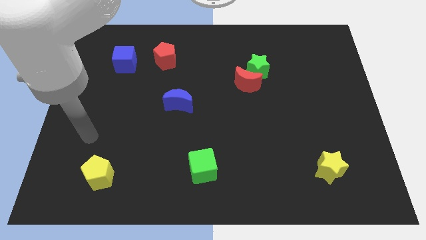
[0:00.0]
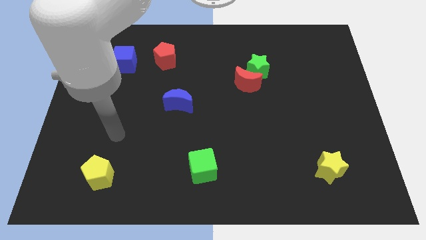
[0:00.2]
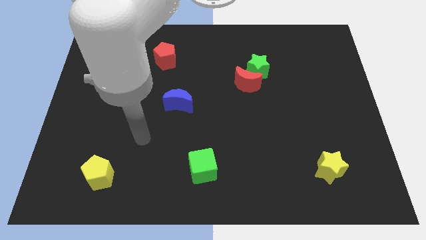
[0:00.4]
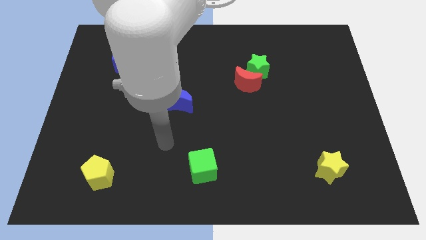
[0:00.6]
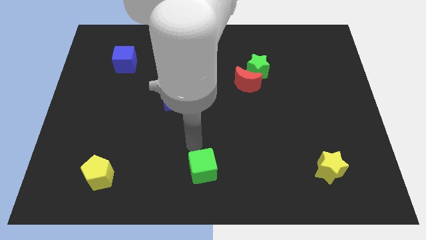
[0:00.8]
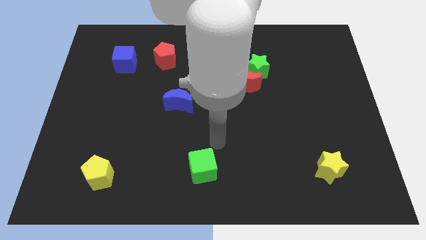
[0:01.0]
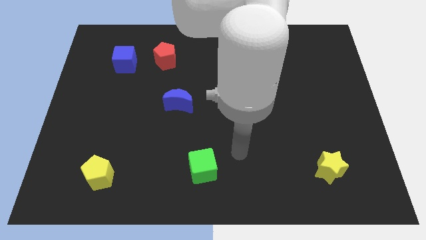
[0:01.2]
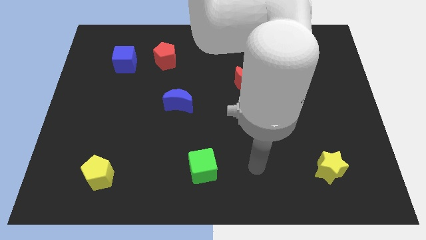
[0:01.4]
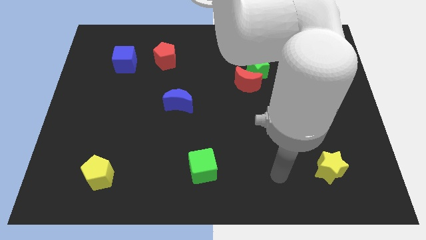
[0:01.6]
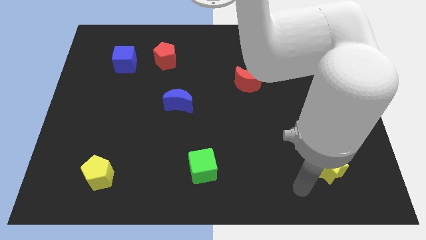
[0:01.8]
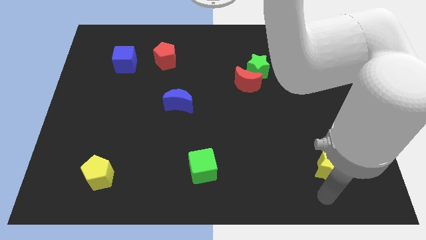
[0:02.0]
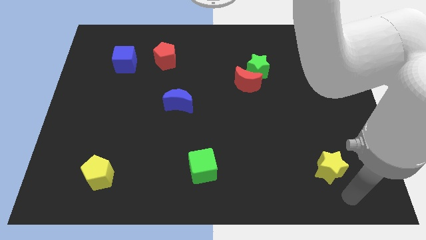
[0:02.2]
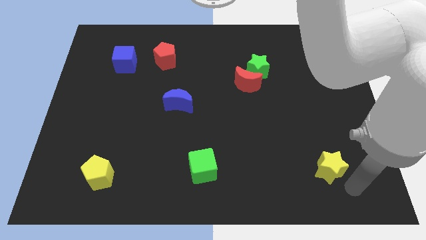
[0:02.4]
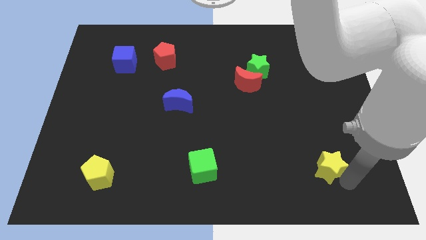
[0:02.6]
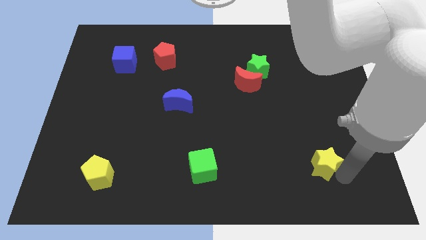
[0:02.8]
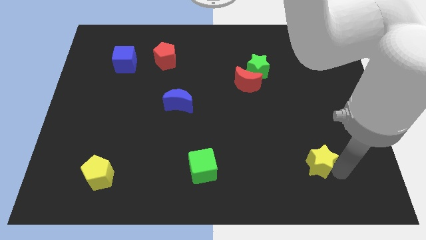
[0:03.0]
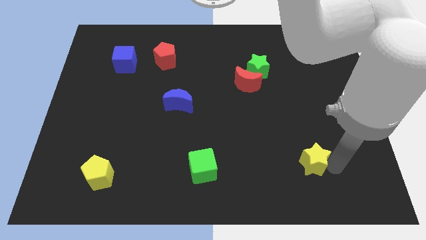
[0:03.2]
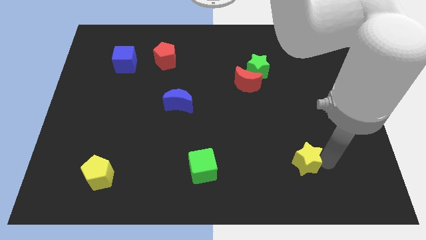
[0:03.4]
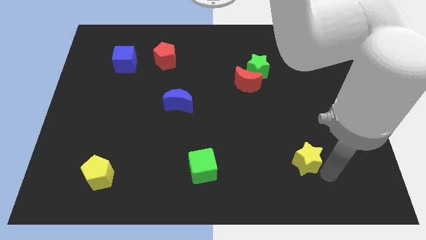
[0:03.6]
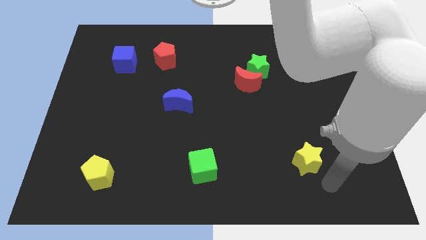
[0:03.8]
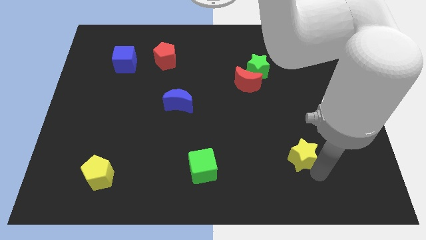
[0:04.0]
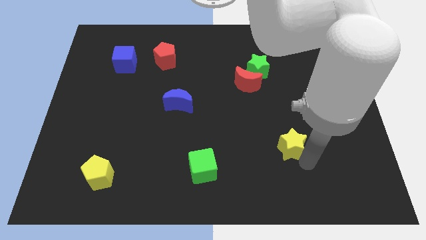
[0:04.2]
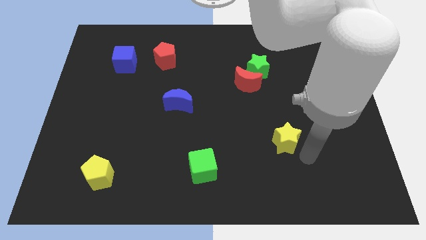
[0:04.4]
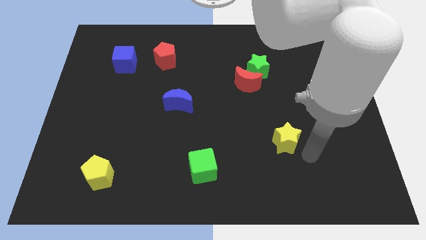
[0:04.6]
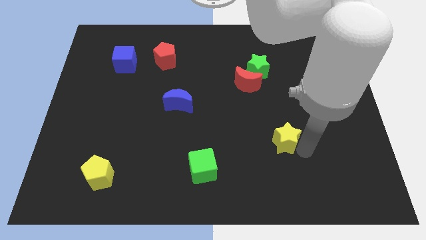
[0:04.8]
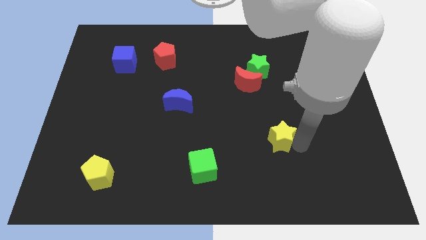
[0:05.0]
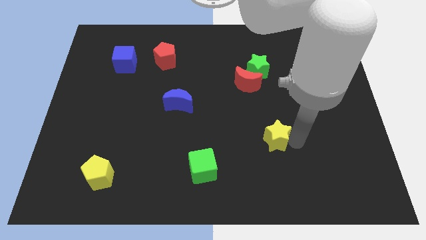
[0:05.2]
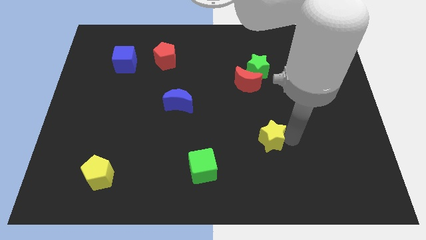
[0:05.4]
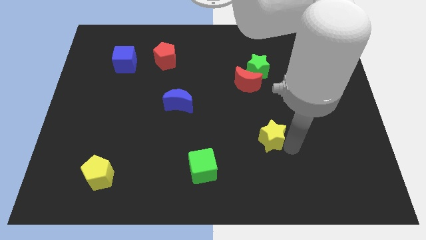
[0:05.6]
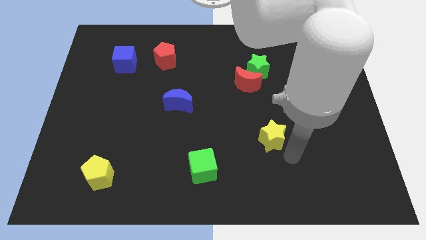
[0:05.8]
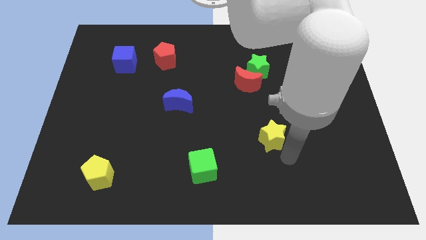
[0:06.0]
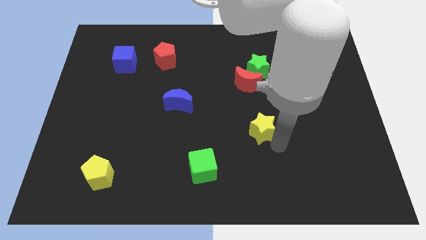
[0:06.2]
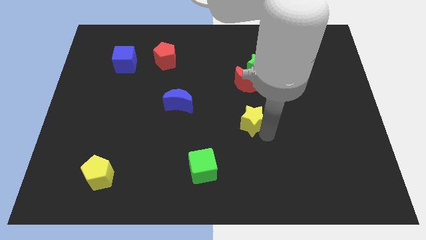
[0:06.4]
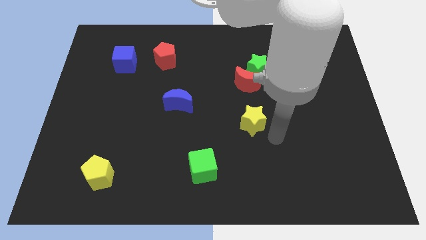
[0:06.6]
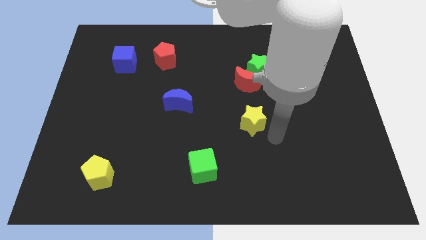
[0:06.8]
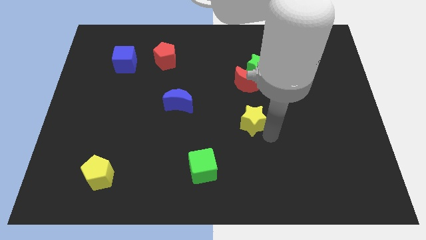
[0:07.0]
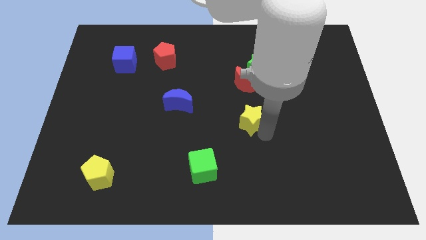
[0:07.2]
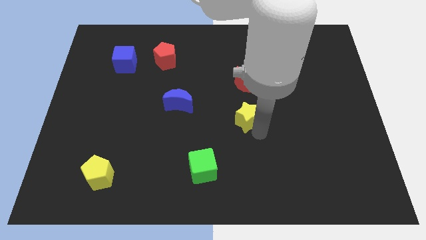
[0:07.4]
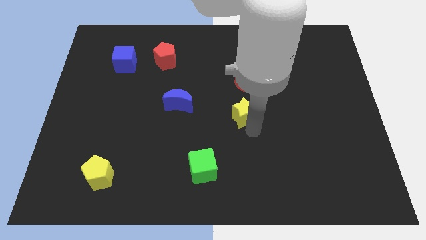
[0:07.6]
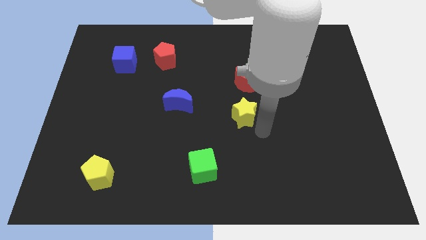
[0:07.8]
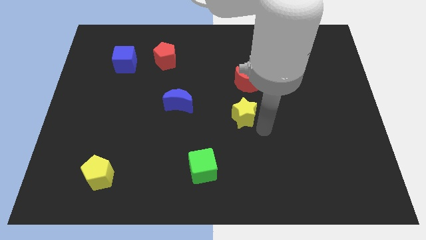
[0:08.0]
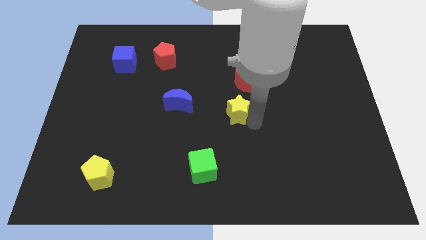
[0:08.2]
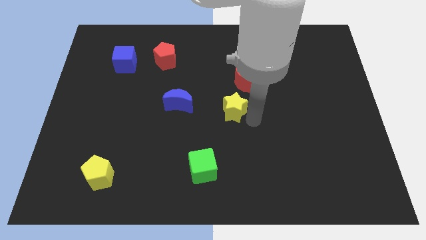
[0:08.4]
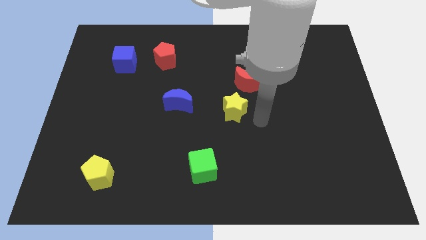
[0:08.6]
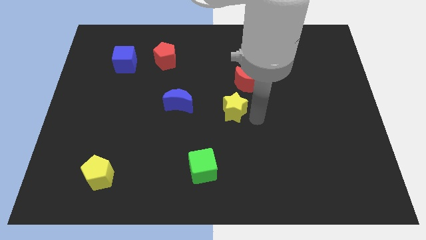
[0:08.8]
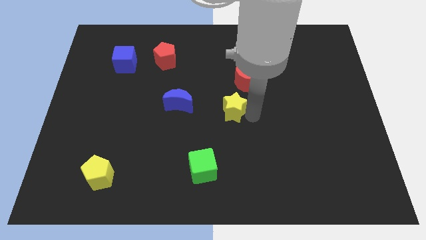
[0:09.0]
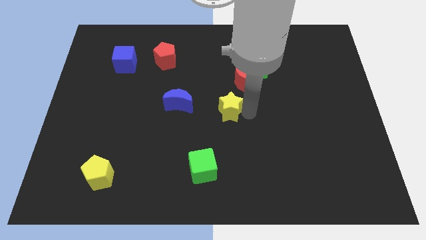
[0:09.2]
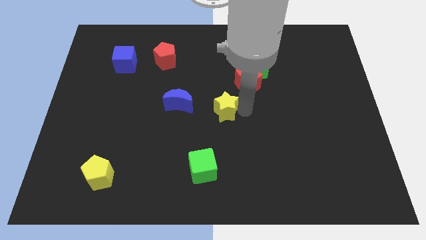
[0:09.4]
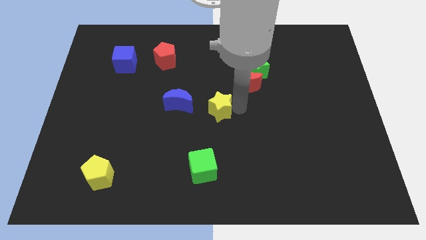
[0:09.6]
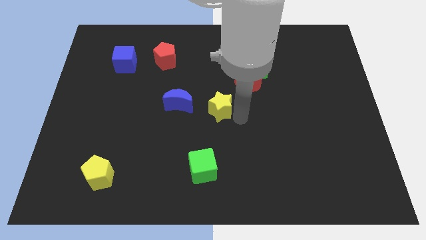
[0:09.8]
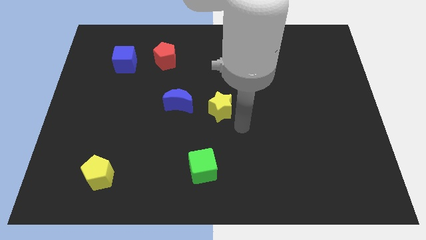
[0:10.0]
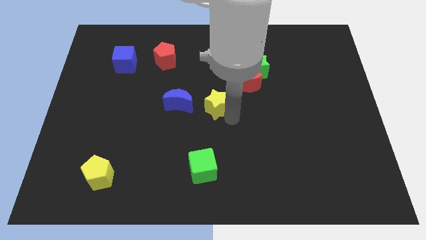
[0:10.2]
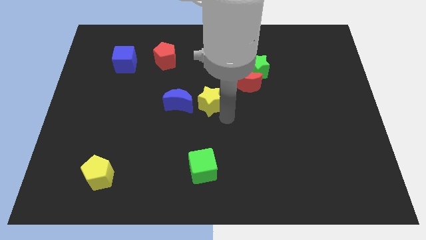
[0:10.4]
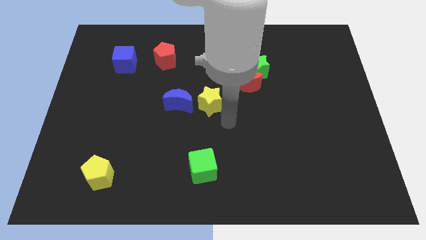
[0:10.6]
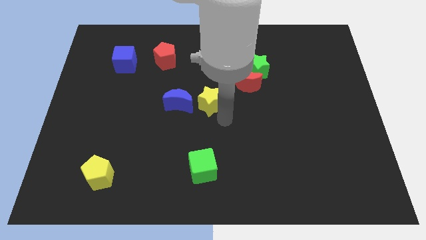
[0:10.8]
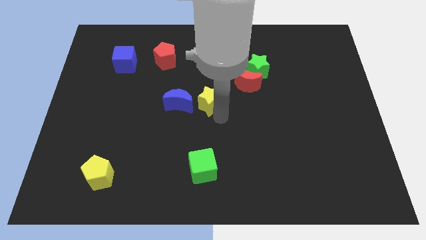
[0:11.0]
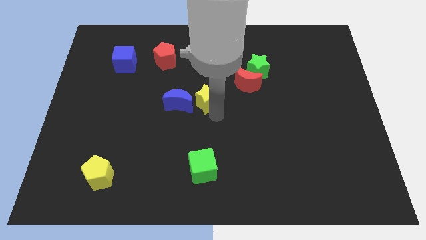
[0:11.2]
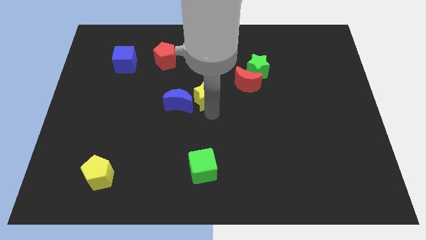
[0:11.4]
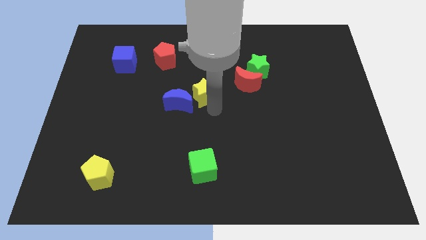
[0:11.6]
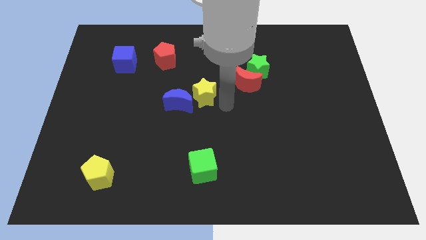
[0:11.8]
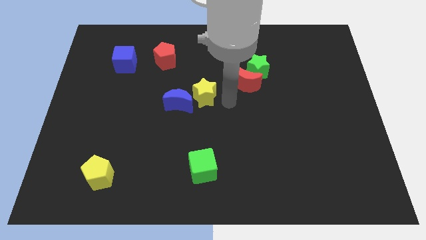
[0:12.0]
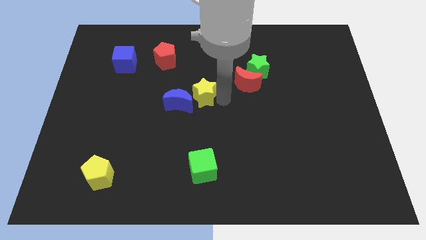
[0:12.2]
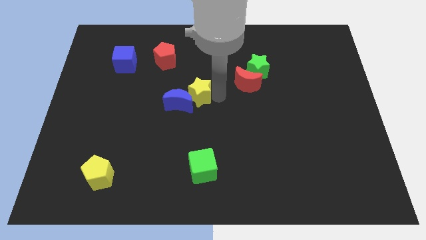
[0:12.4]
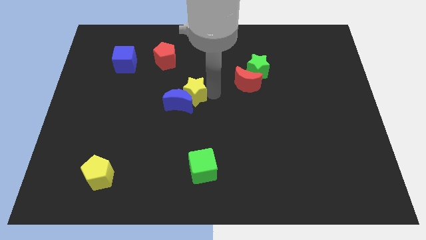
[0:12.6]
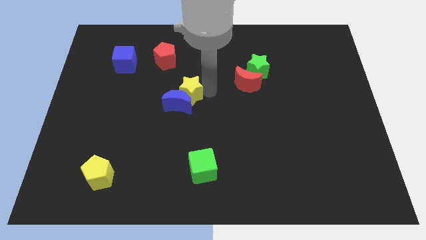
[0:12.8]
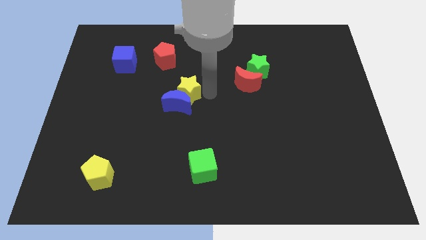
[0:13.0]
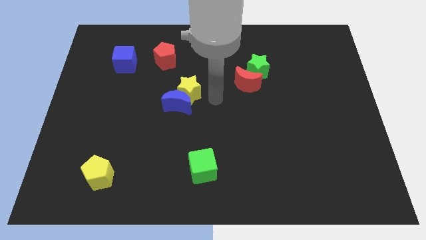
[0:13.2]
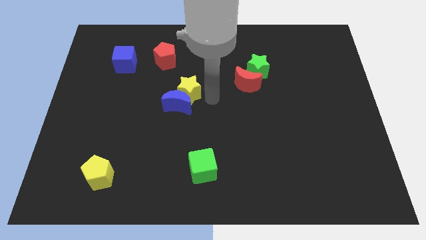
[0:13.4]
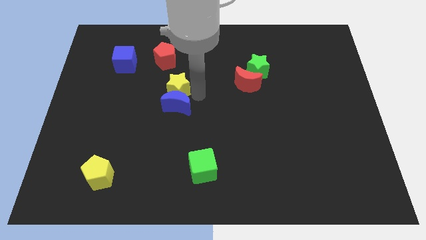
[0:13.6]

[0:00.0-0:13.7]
put the yellow star to the top left of the blue moon

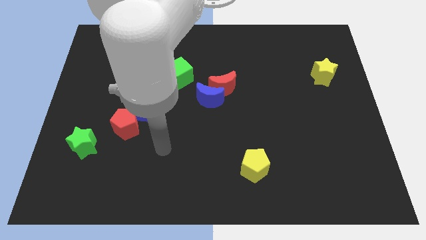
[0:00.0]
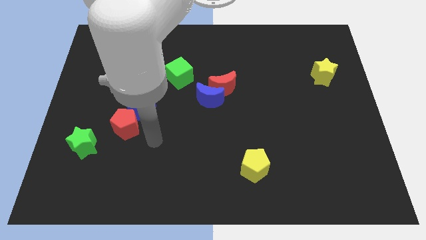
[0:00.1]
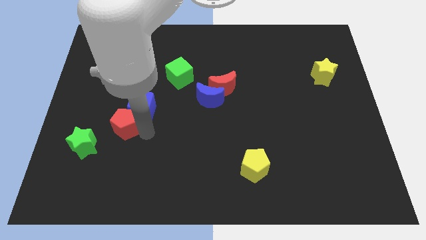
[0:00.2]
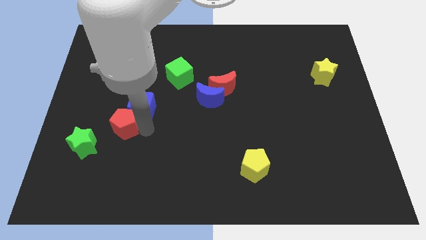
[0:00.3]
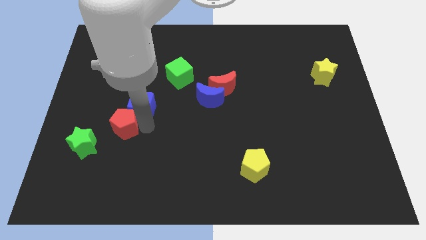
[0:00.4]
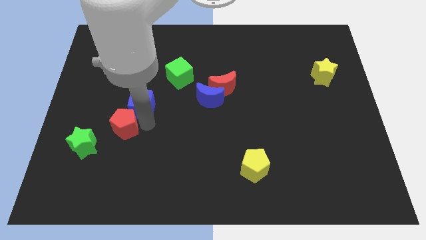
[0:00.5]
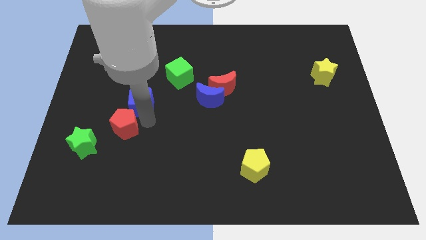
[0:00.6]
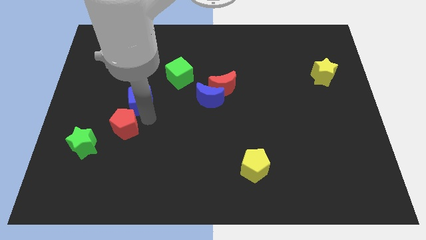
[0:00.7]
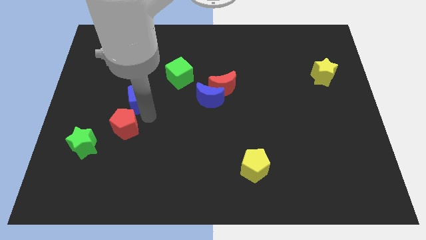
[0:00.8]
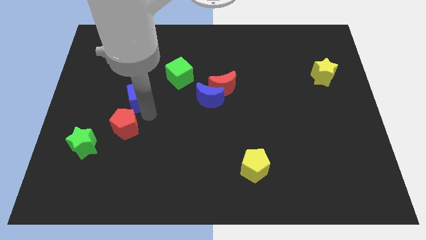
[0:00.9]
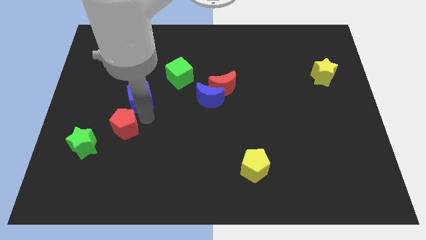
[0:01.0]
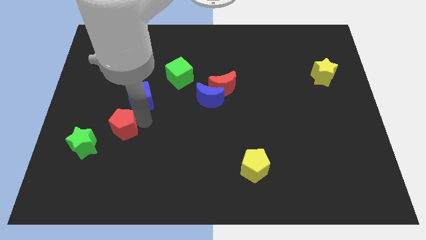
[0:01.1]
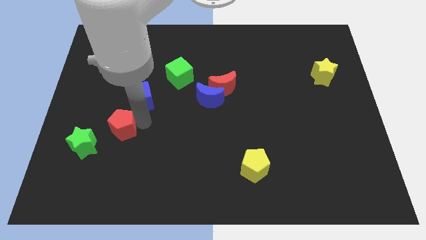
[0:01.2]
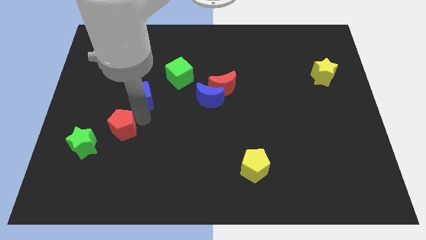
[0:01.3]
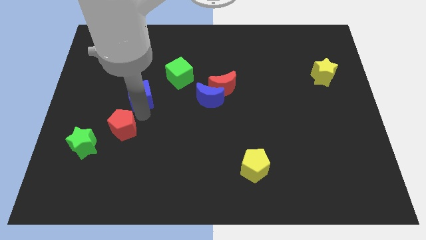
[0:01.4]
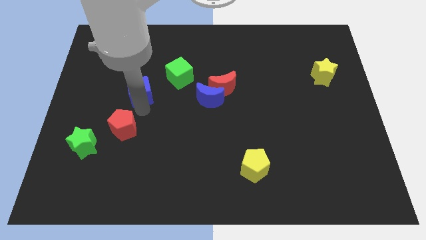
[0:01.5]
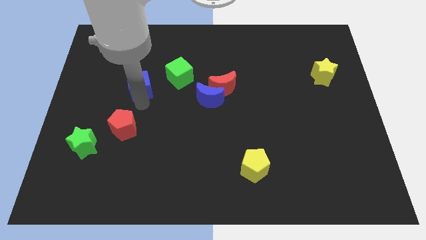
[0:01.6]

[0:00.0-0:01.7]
move the blue cube just left of the green cube
